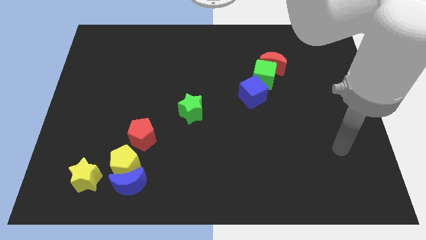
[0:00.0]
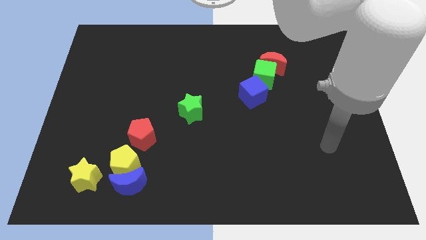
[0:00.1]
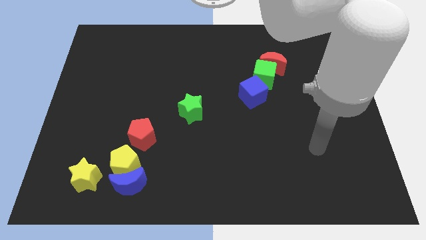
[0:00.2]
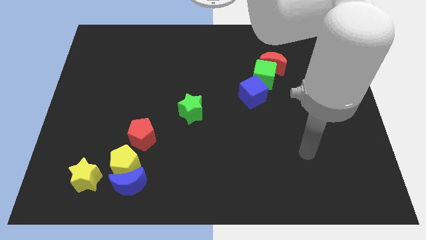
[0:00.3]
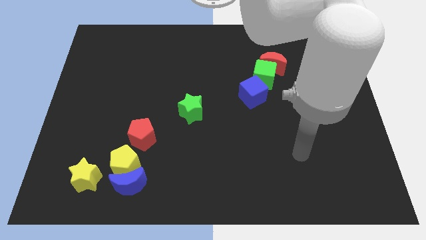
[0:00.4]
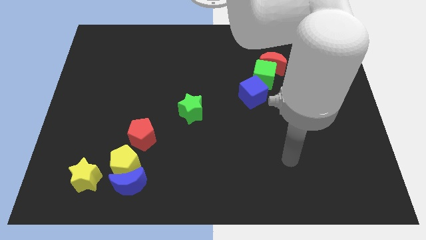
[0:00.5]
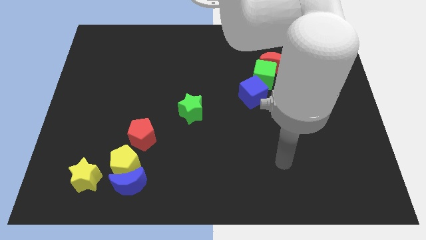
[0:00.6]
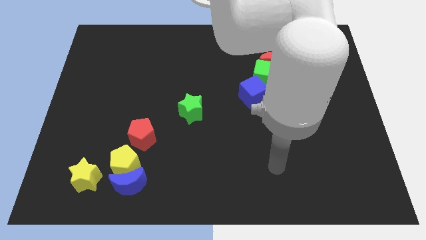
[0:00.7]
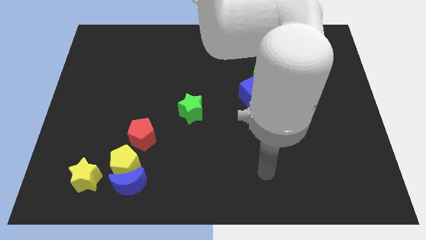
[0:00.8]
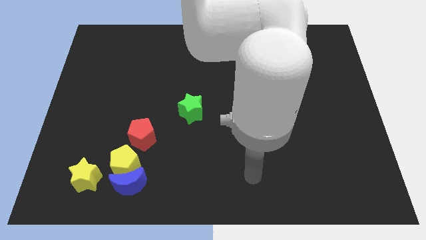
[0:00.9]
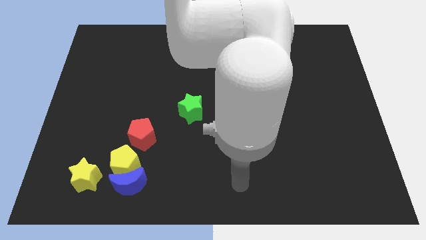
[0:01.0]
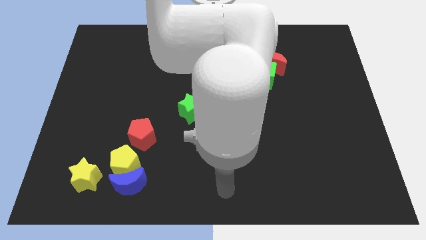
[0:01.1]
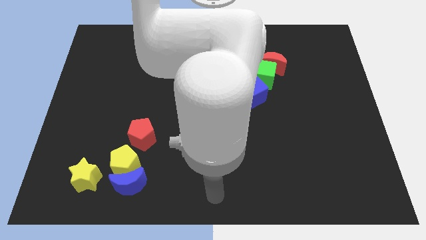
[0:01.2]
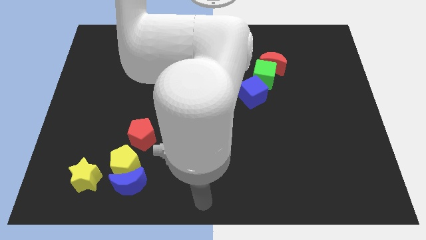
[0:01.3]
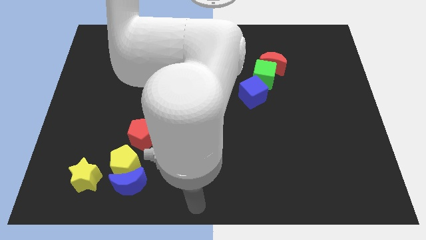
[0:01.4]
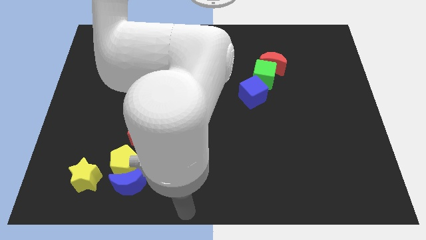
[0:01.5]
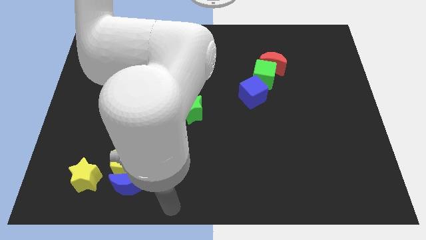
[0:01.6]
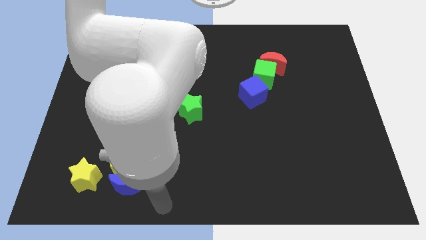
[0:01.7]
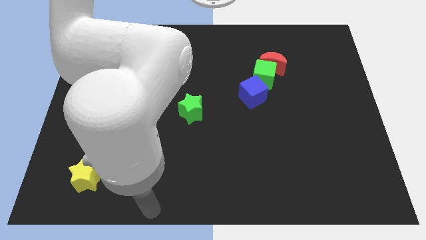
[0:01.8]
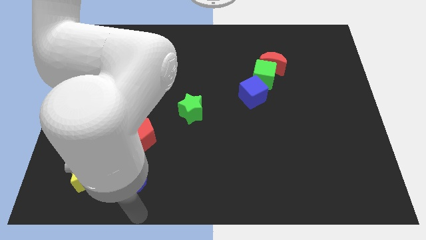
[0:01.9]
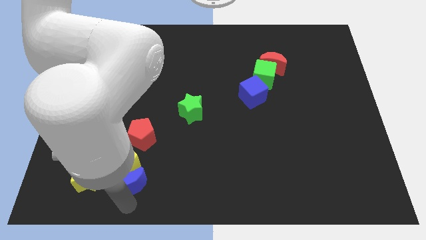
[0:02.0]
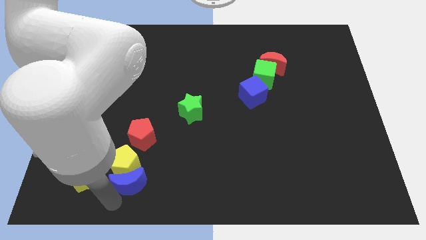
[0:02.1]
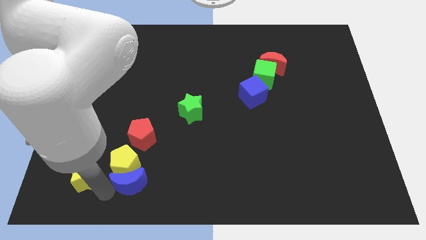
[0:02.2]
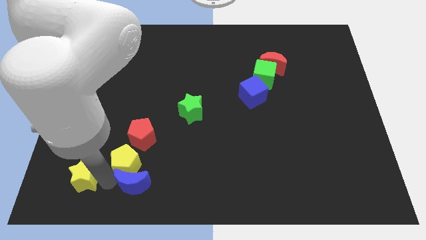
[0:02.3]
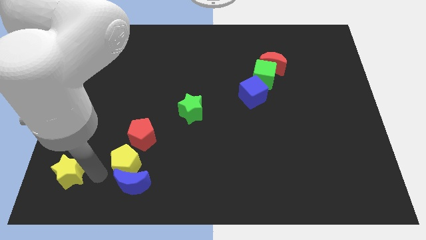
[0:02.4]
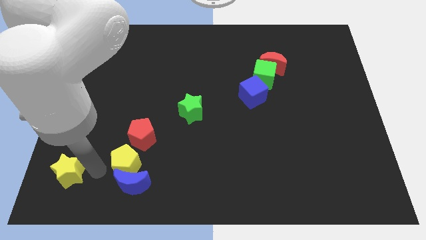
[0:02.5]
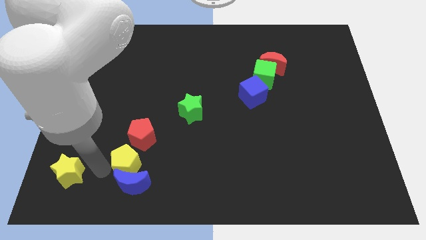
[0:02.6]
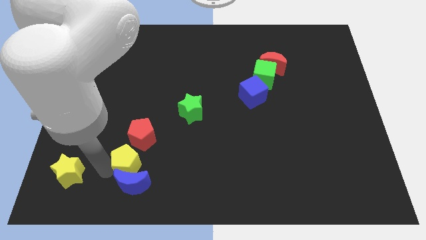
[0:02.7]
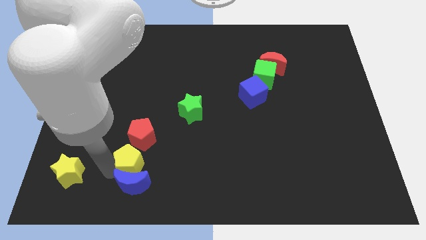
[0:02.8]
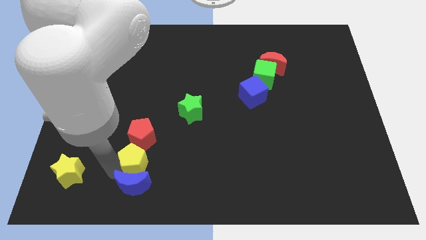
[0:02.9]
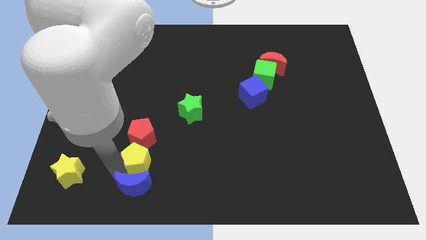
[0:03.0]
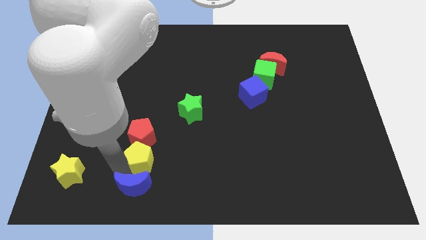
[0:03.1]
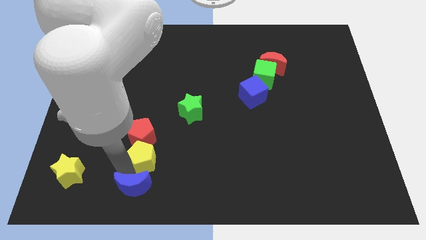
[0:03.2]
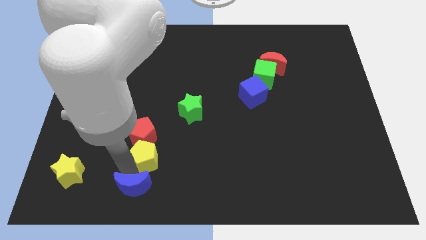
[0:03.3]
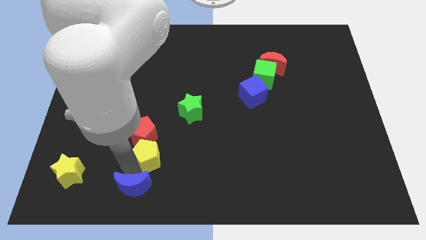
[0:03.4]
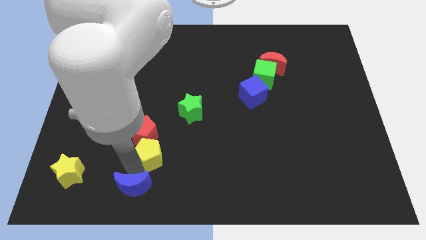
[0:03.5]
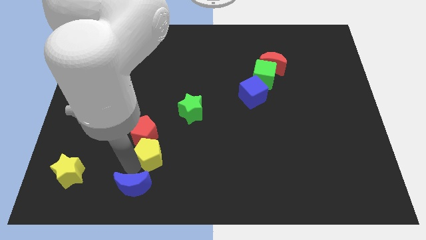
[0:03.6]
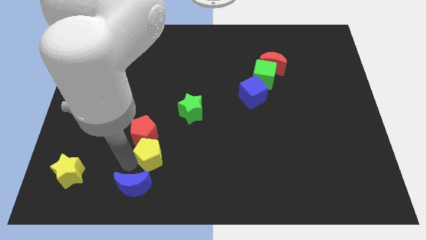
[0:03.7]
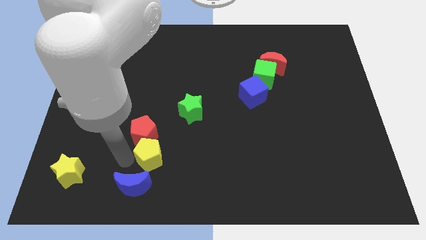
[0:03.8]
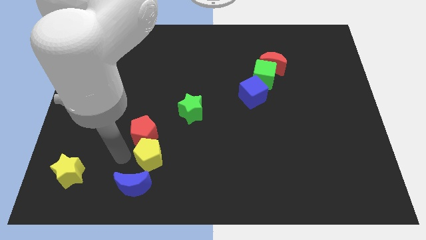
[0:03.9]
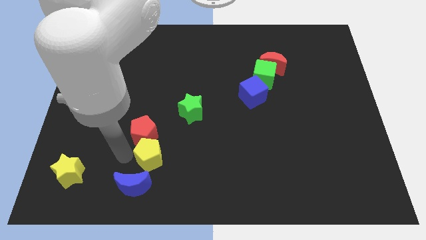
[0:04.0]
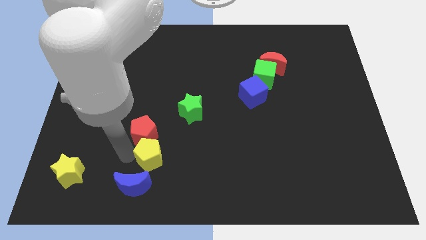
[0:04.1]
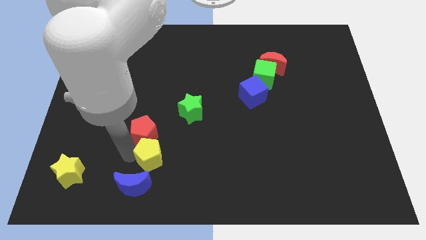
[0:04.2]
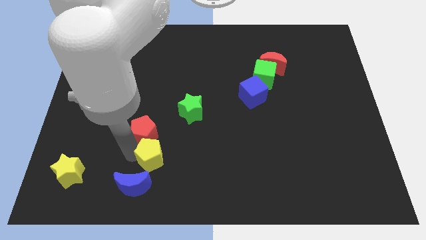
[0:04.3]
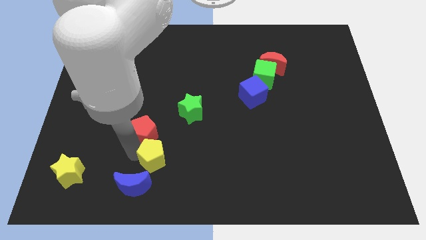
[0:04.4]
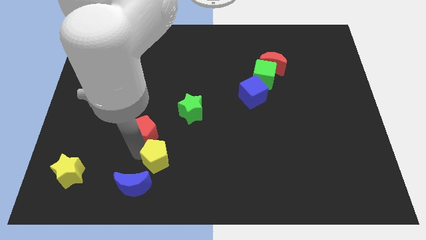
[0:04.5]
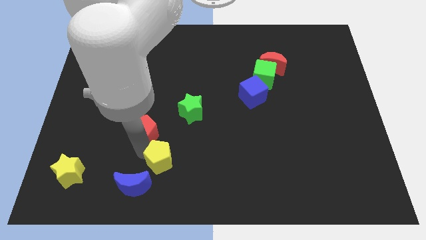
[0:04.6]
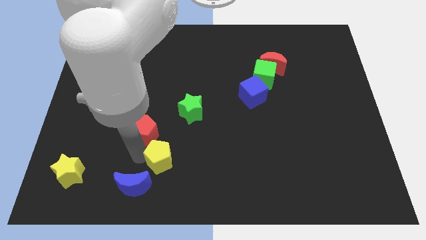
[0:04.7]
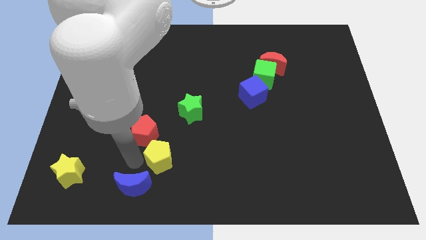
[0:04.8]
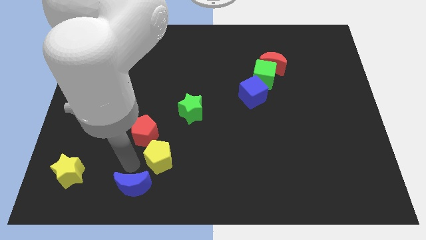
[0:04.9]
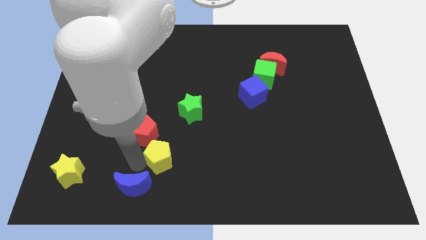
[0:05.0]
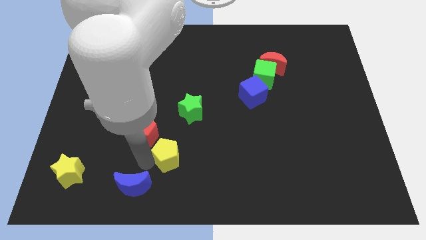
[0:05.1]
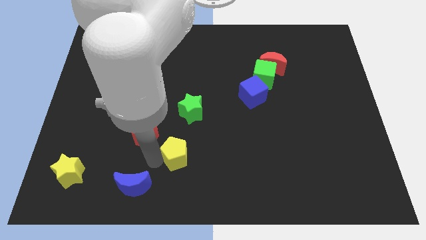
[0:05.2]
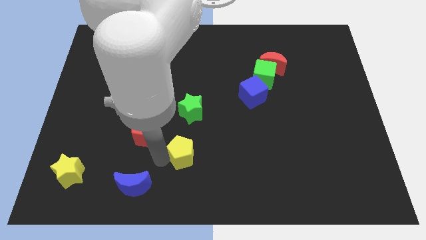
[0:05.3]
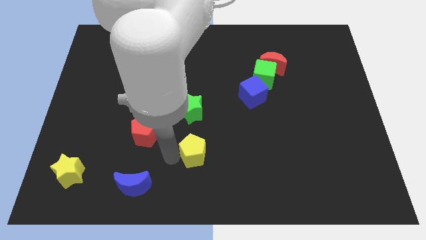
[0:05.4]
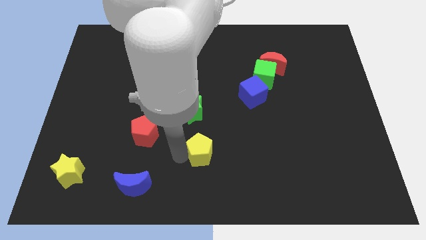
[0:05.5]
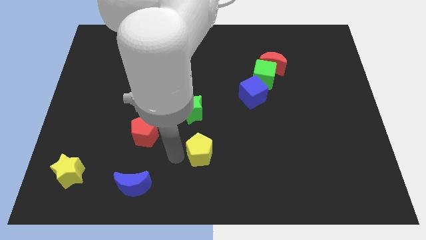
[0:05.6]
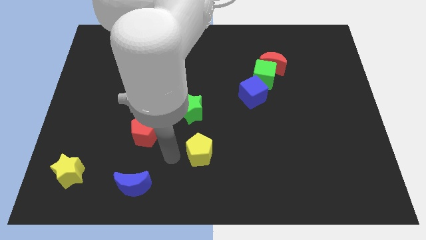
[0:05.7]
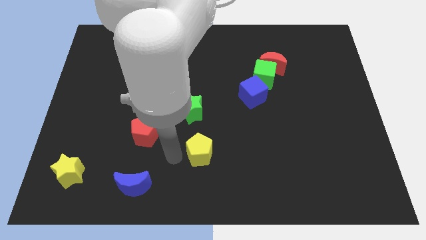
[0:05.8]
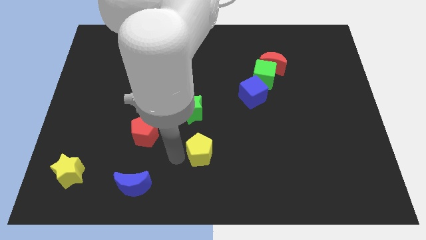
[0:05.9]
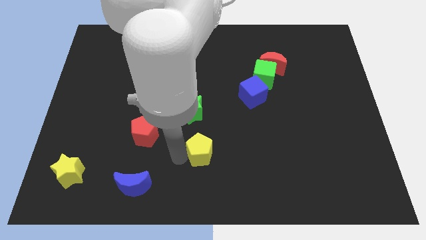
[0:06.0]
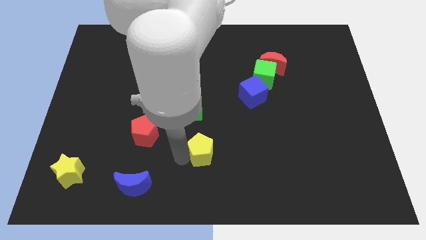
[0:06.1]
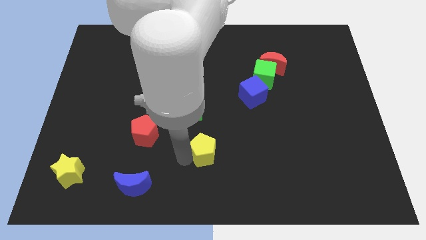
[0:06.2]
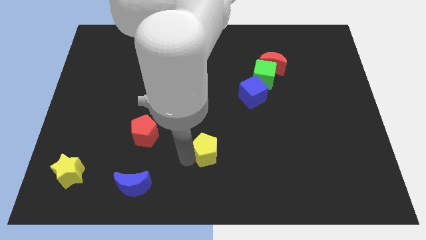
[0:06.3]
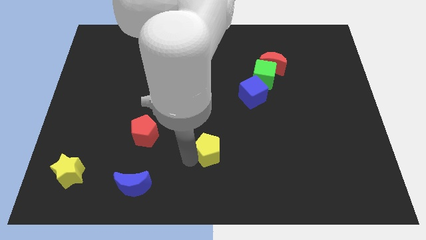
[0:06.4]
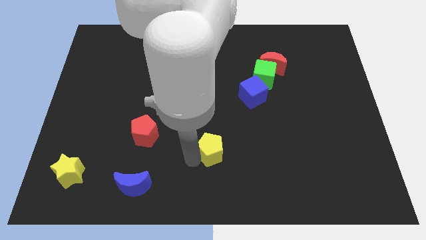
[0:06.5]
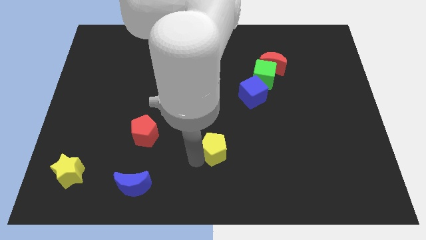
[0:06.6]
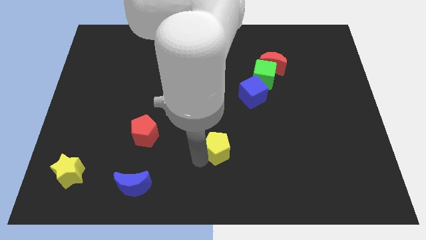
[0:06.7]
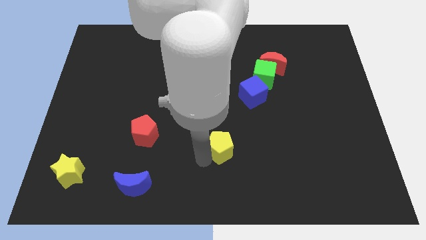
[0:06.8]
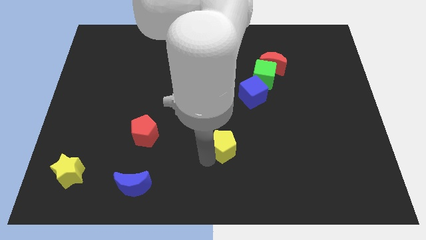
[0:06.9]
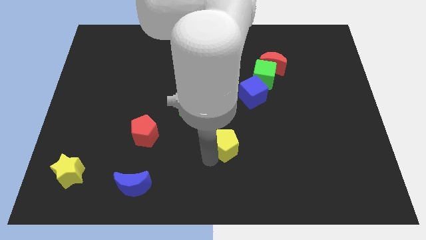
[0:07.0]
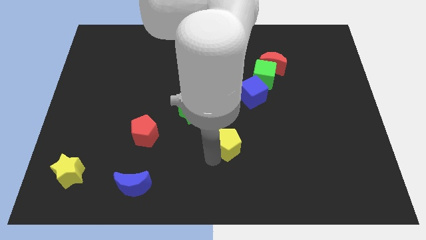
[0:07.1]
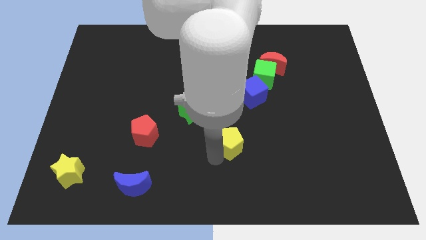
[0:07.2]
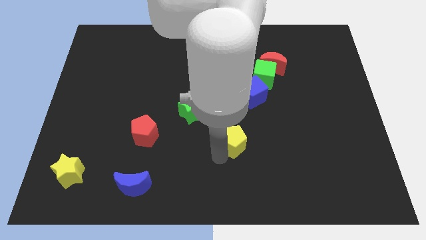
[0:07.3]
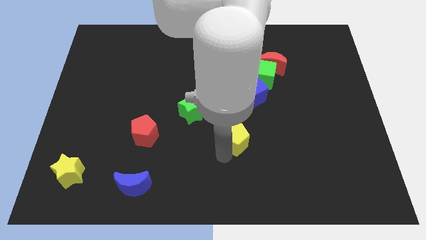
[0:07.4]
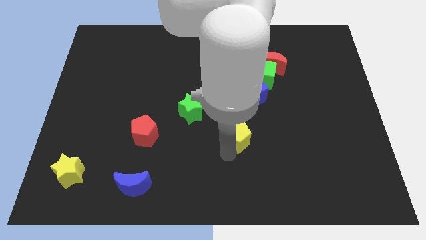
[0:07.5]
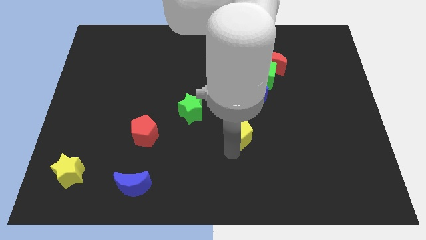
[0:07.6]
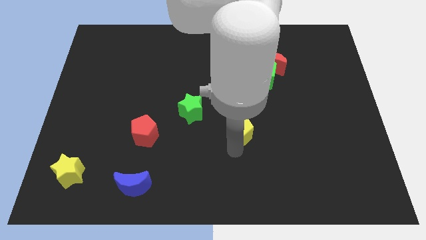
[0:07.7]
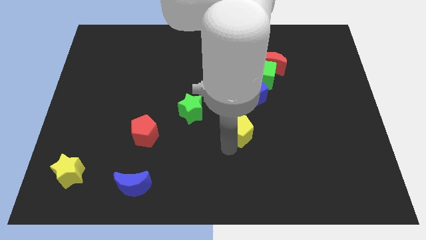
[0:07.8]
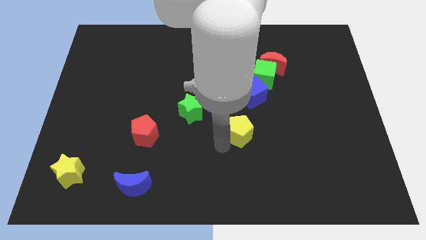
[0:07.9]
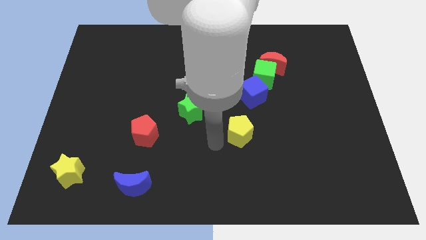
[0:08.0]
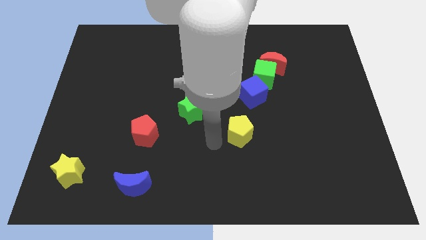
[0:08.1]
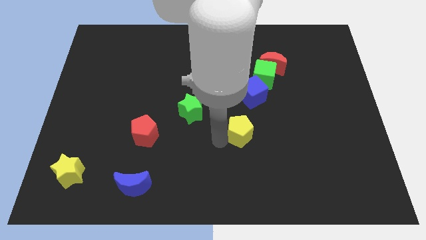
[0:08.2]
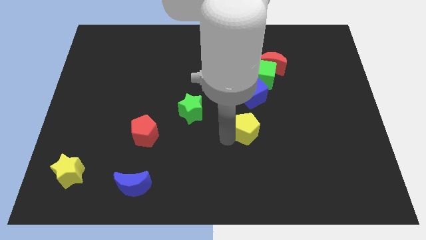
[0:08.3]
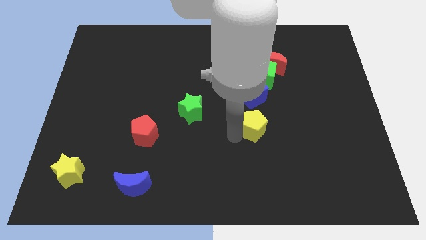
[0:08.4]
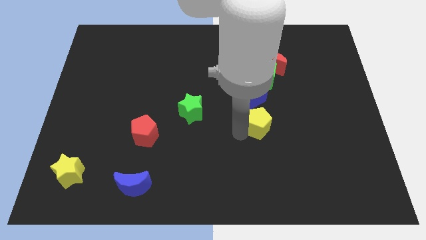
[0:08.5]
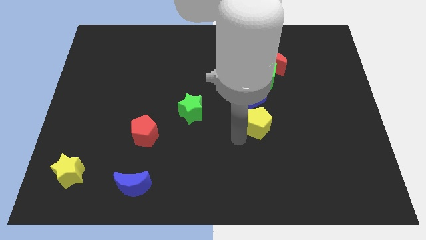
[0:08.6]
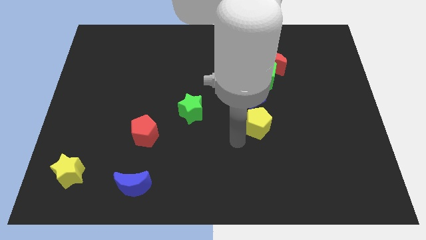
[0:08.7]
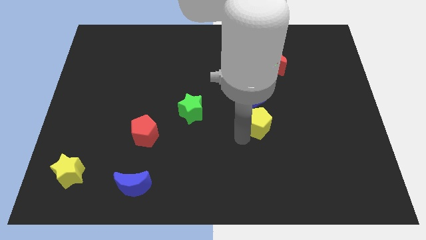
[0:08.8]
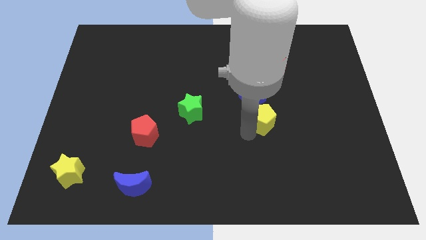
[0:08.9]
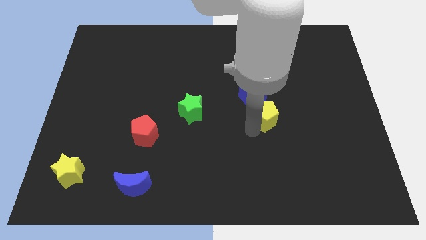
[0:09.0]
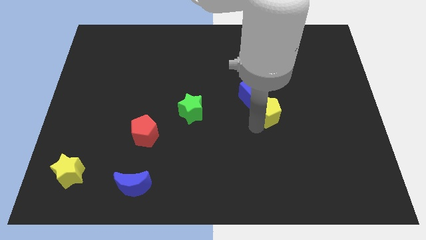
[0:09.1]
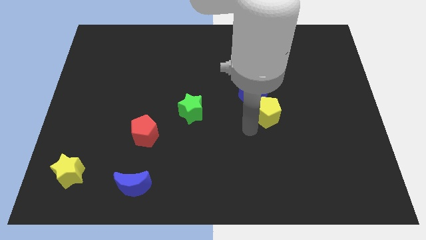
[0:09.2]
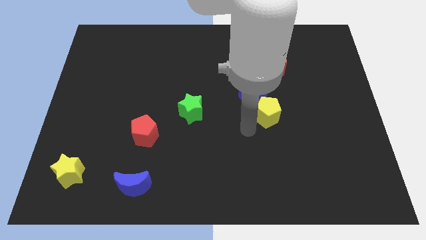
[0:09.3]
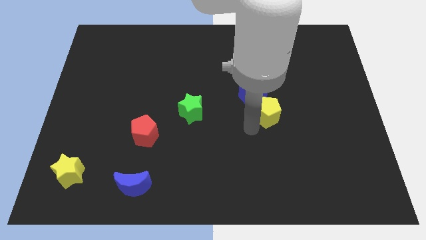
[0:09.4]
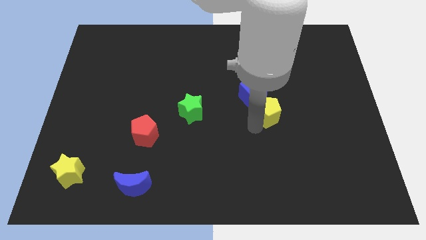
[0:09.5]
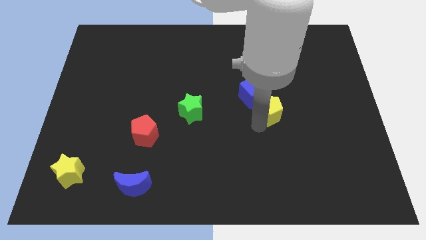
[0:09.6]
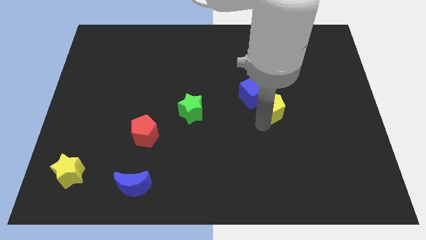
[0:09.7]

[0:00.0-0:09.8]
slide the yellow pentagon to the right of the blue cube
